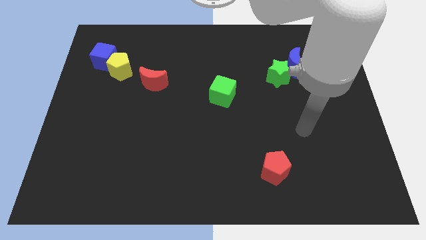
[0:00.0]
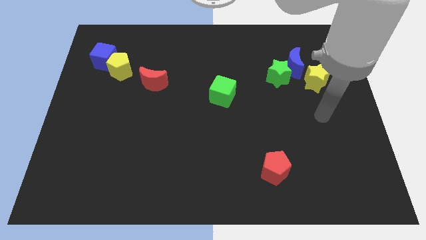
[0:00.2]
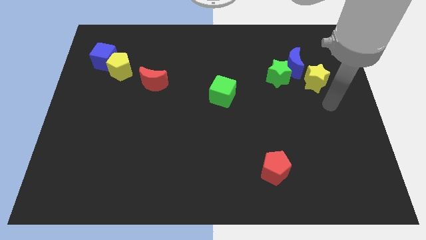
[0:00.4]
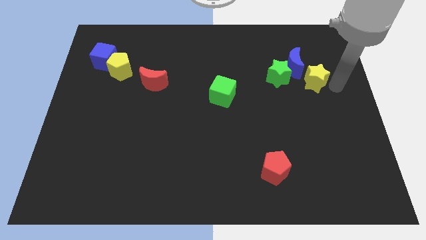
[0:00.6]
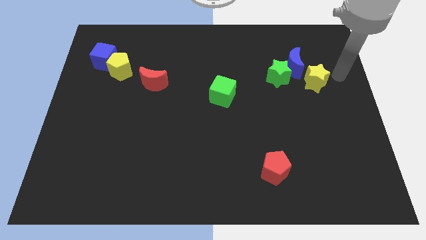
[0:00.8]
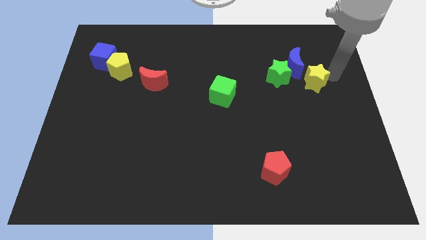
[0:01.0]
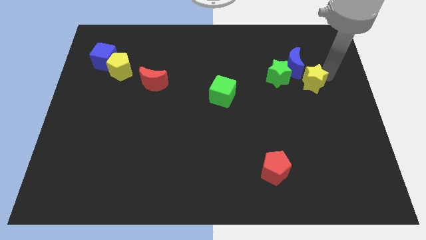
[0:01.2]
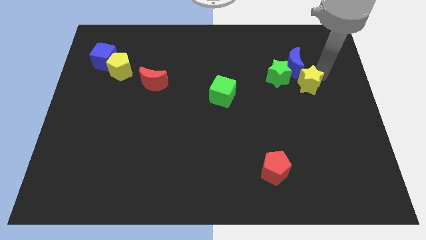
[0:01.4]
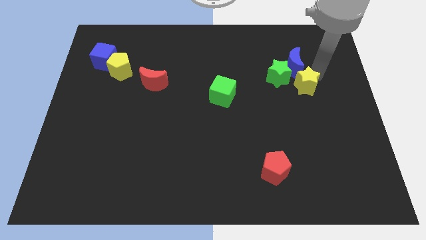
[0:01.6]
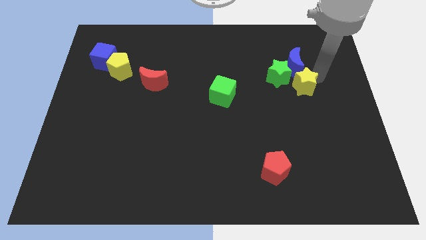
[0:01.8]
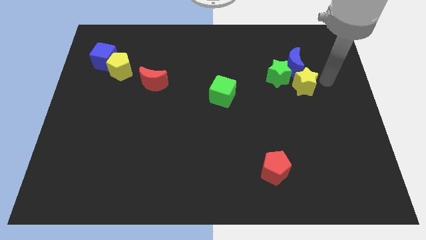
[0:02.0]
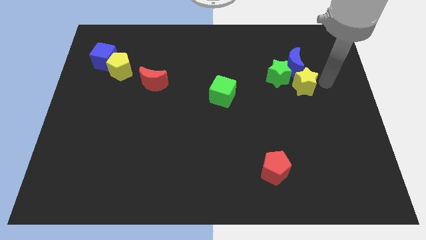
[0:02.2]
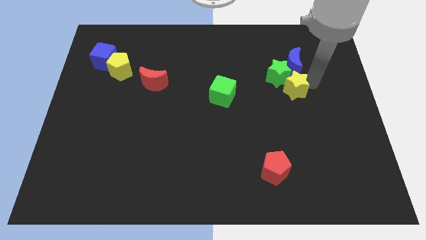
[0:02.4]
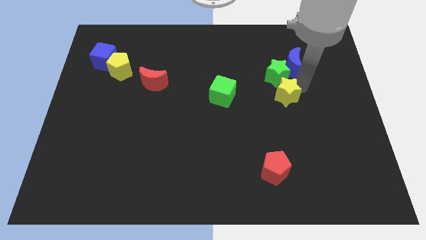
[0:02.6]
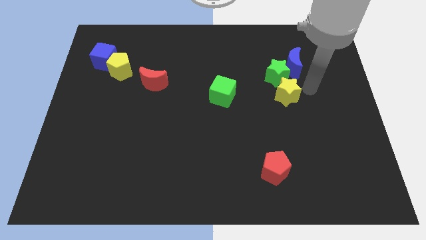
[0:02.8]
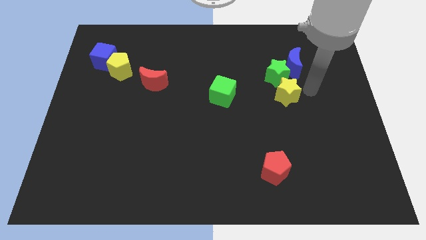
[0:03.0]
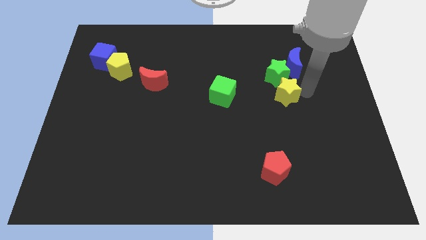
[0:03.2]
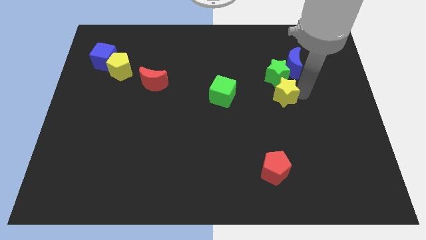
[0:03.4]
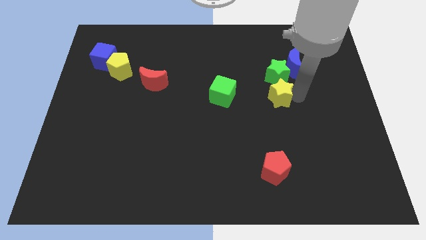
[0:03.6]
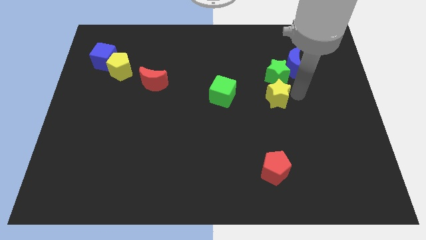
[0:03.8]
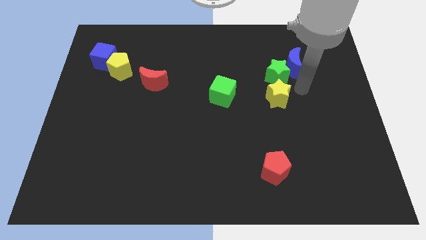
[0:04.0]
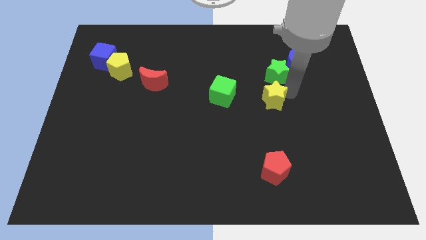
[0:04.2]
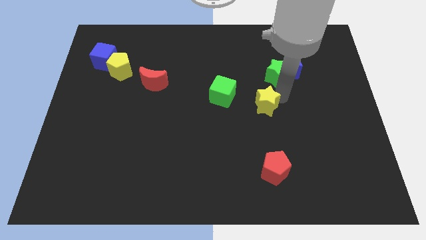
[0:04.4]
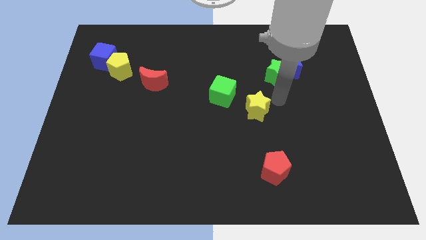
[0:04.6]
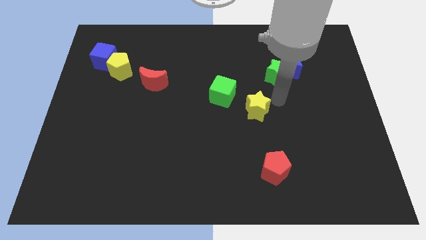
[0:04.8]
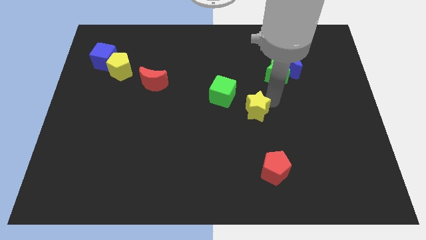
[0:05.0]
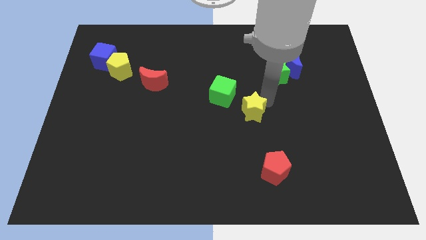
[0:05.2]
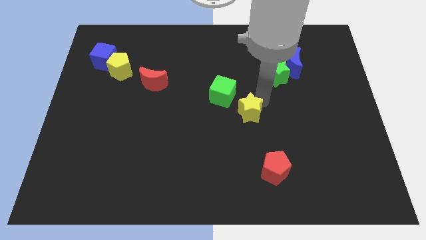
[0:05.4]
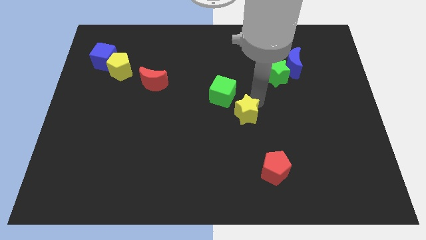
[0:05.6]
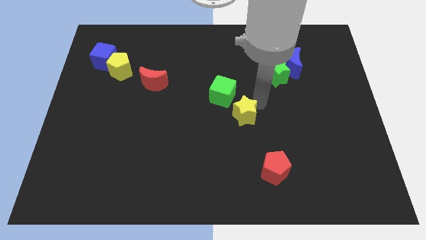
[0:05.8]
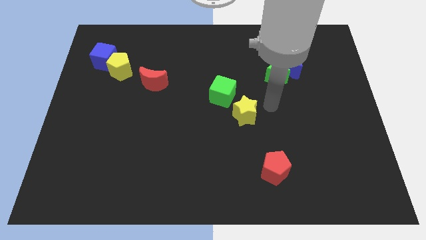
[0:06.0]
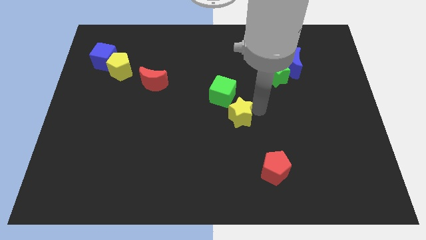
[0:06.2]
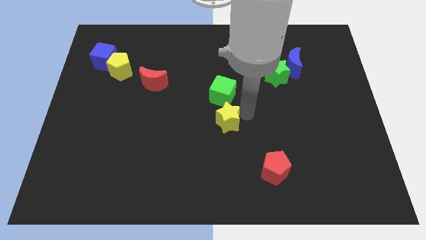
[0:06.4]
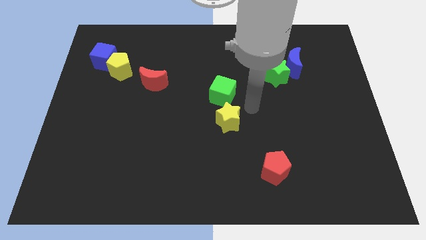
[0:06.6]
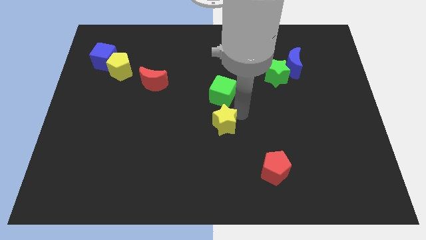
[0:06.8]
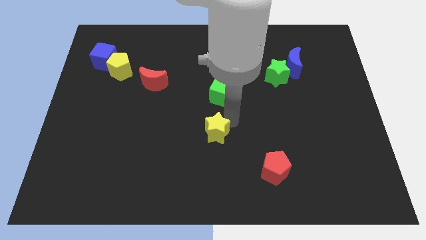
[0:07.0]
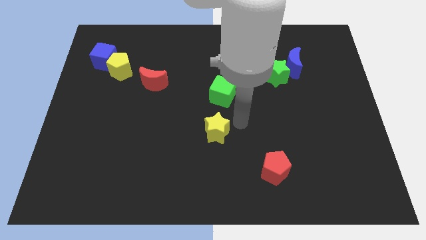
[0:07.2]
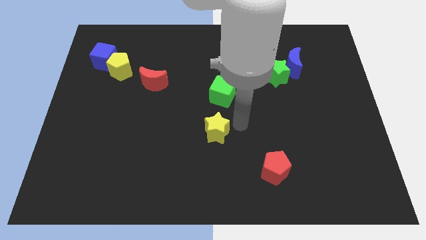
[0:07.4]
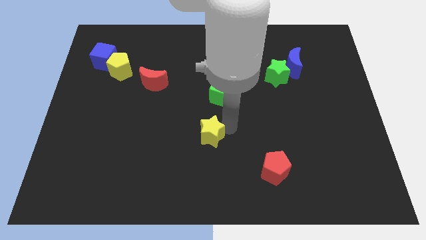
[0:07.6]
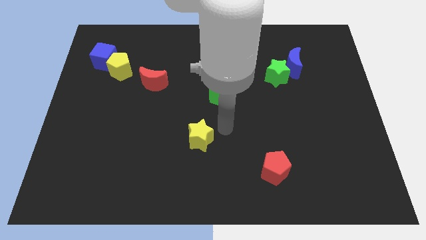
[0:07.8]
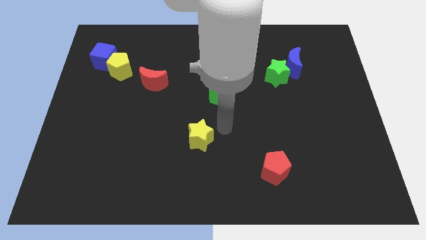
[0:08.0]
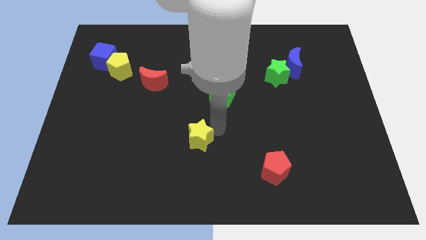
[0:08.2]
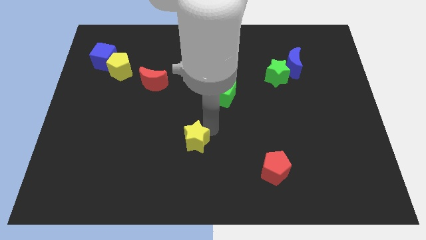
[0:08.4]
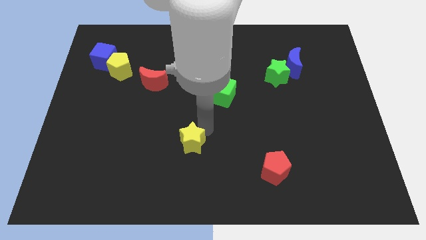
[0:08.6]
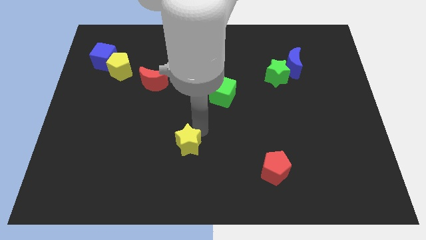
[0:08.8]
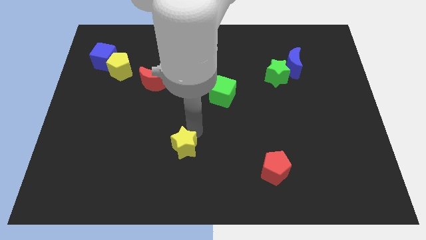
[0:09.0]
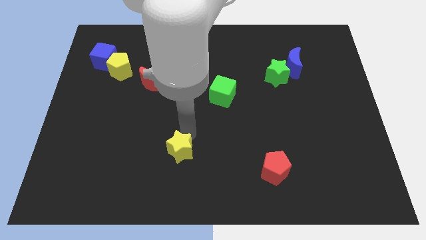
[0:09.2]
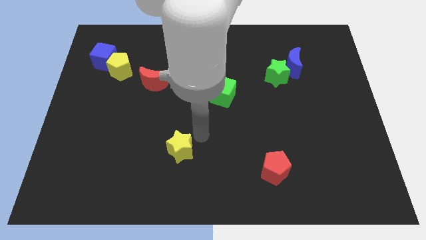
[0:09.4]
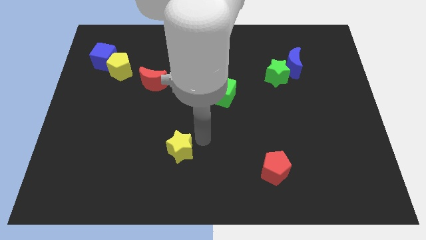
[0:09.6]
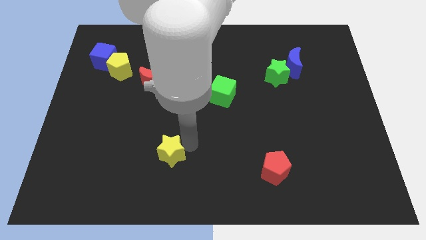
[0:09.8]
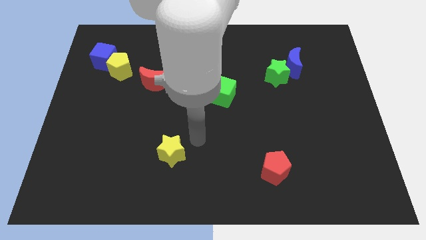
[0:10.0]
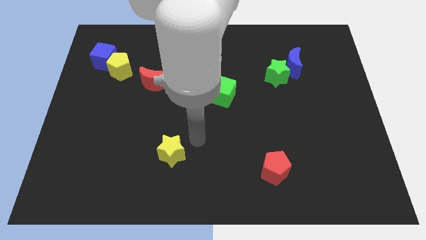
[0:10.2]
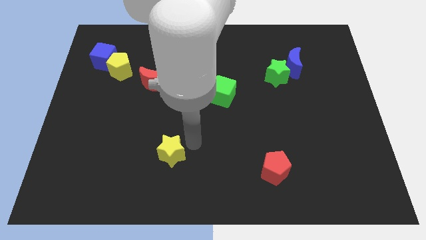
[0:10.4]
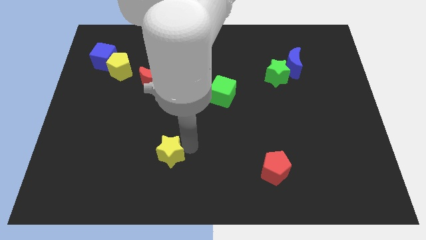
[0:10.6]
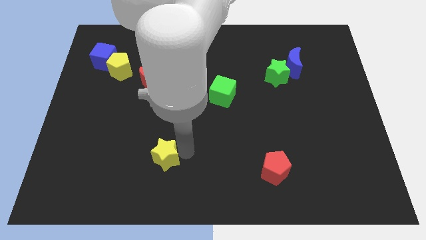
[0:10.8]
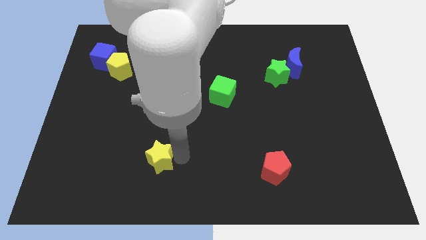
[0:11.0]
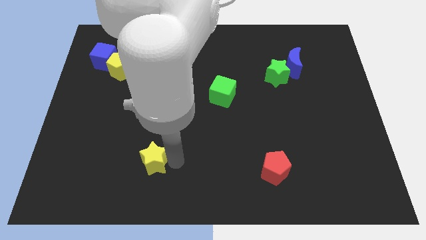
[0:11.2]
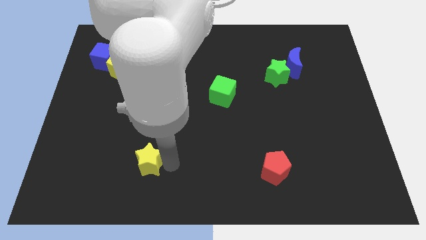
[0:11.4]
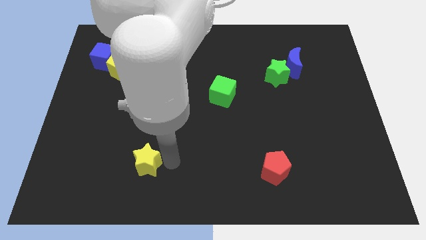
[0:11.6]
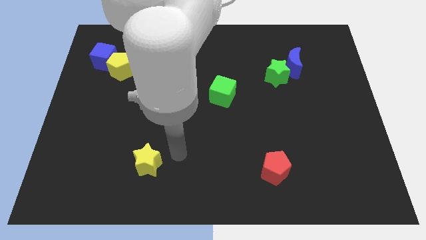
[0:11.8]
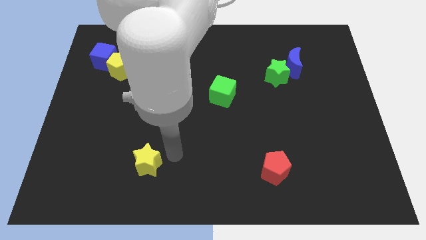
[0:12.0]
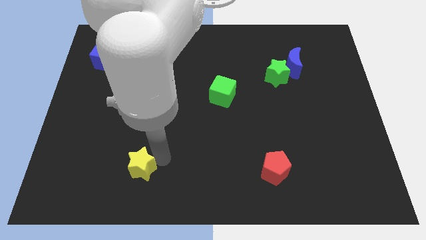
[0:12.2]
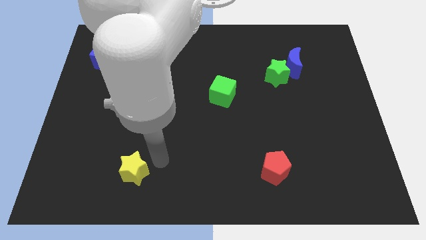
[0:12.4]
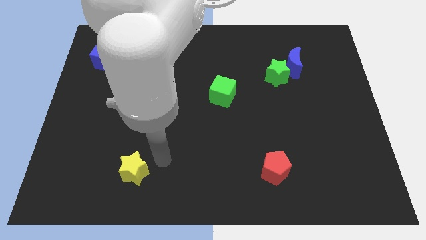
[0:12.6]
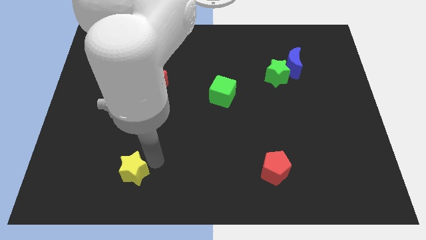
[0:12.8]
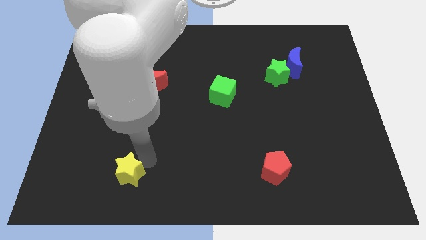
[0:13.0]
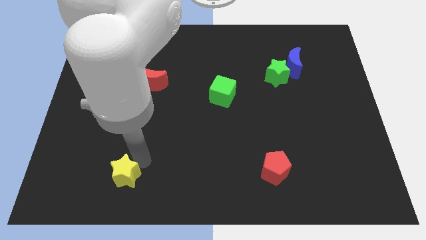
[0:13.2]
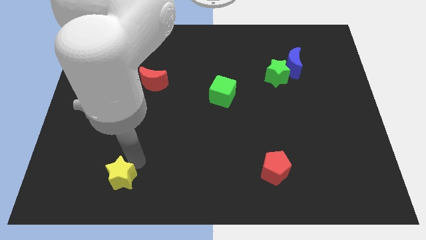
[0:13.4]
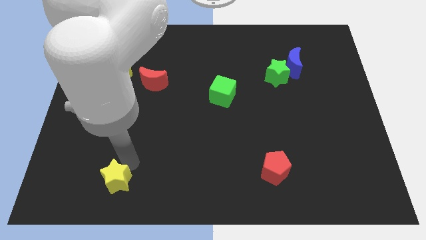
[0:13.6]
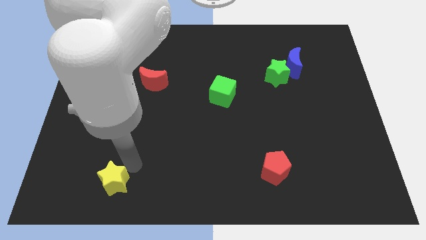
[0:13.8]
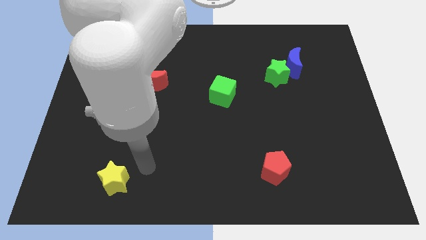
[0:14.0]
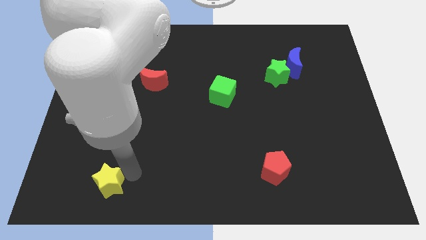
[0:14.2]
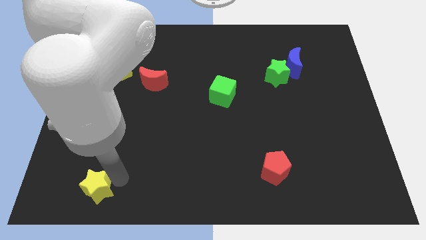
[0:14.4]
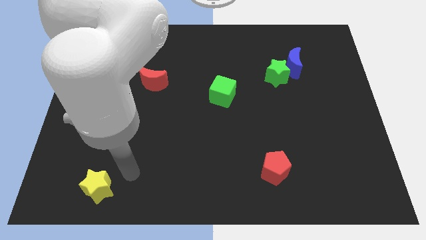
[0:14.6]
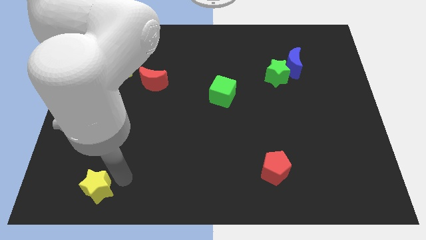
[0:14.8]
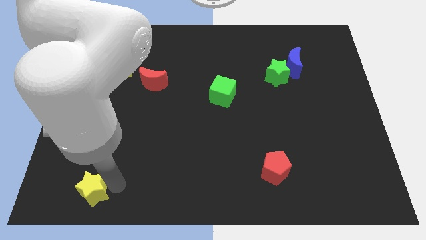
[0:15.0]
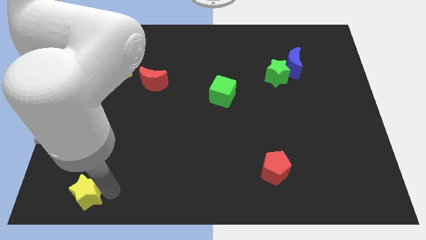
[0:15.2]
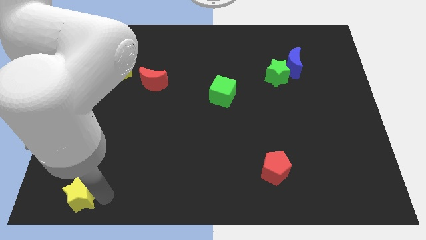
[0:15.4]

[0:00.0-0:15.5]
put the yellow star to the bottom left

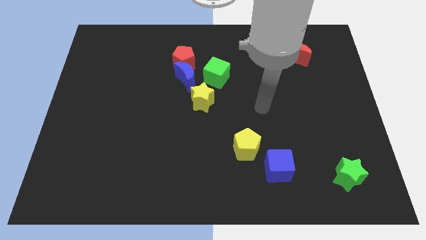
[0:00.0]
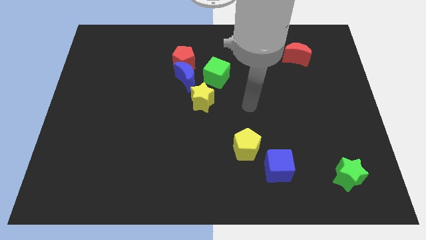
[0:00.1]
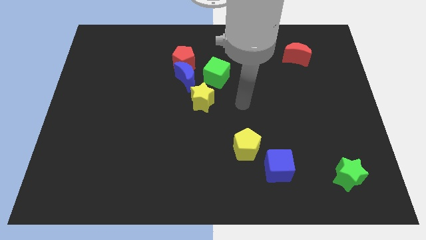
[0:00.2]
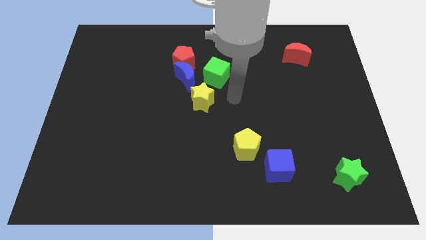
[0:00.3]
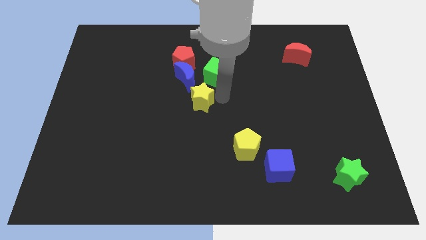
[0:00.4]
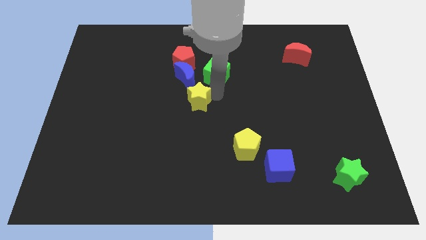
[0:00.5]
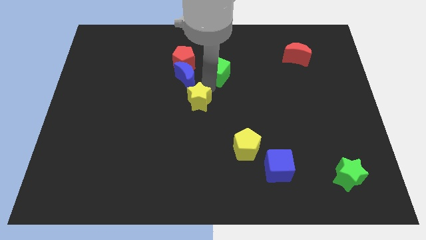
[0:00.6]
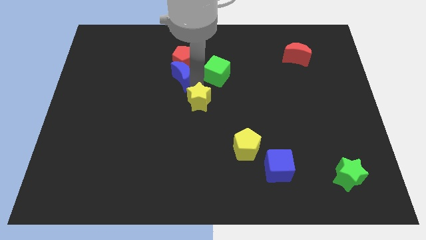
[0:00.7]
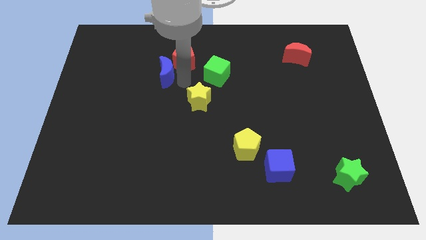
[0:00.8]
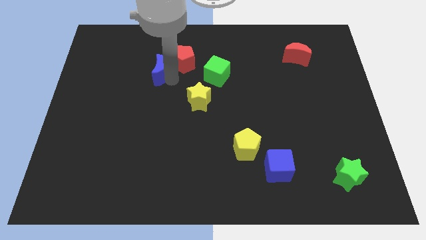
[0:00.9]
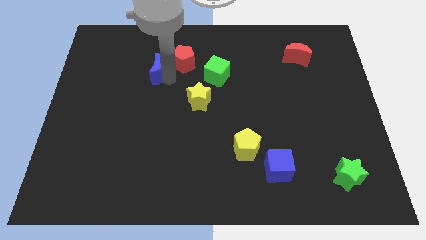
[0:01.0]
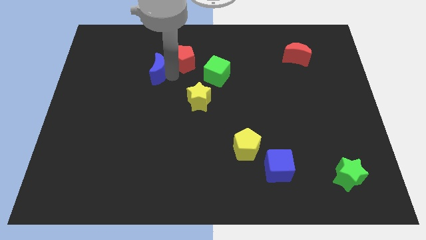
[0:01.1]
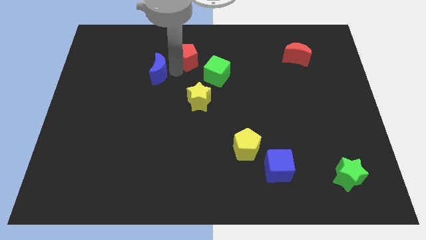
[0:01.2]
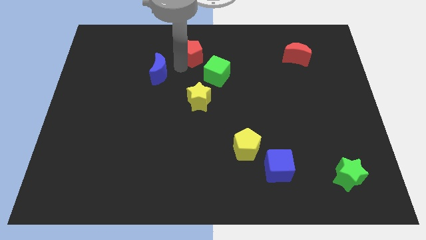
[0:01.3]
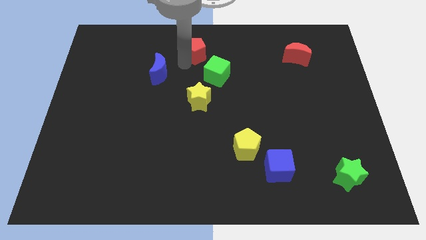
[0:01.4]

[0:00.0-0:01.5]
slide the red pentagon to the top side
